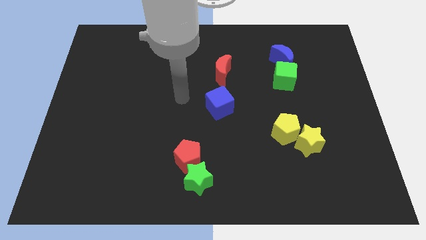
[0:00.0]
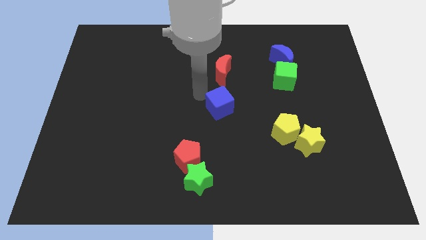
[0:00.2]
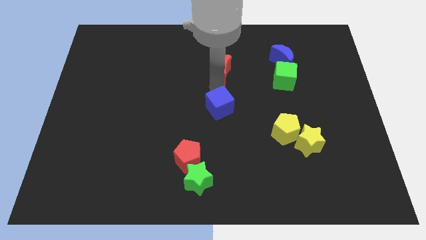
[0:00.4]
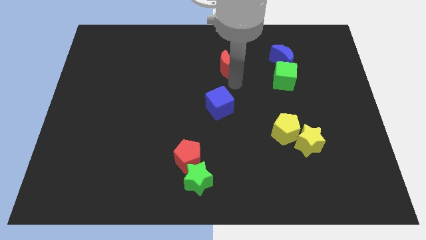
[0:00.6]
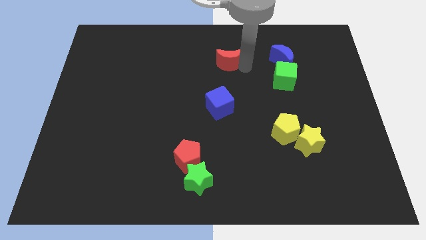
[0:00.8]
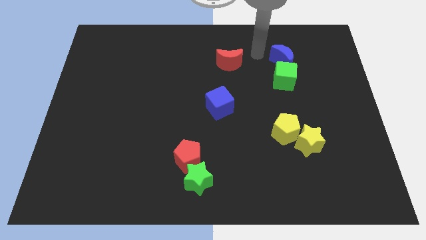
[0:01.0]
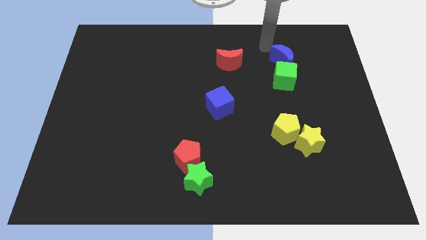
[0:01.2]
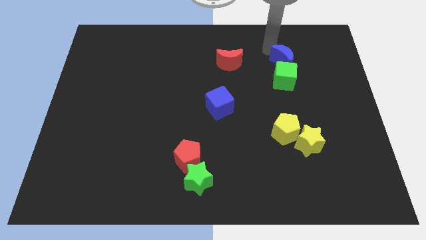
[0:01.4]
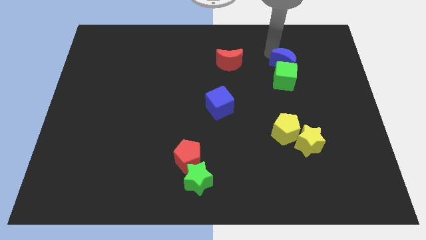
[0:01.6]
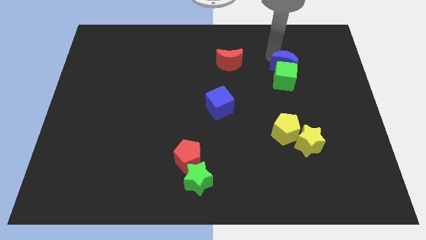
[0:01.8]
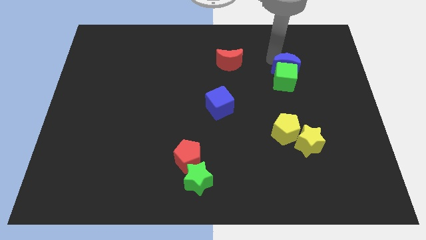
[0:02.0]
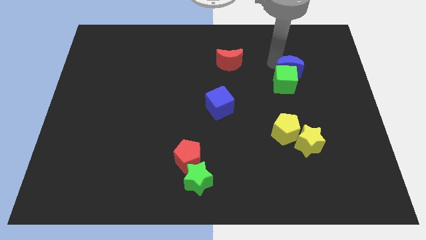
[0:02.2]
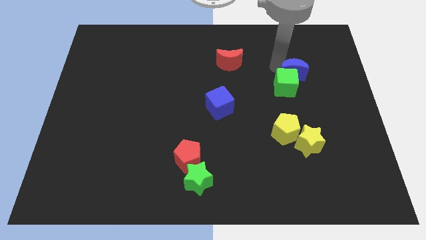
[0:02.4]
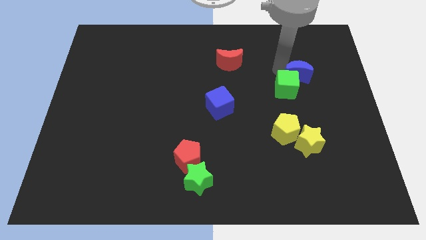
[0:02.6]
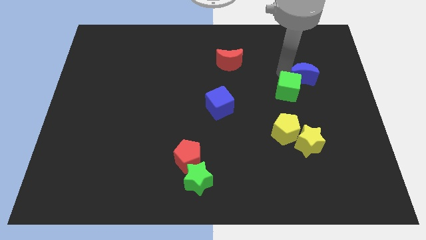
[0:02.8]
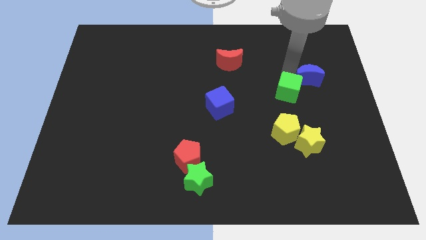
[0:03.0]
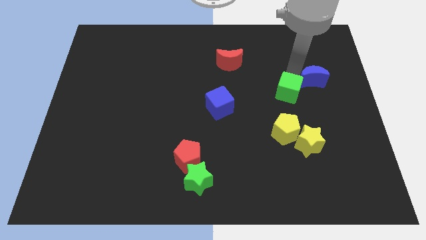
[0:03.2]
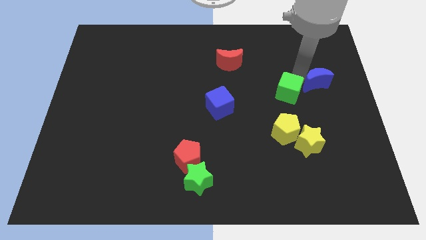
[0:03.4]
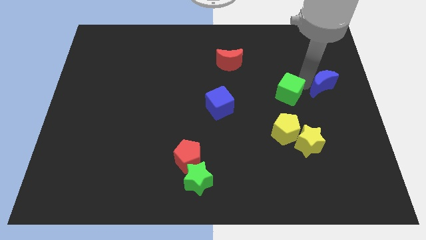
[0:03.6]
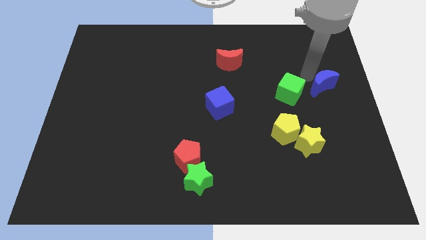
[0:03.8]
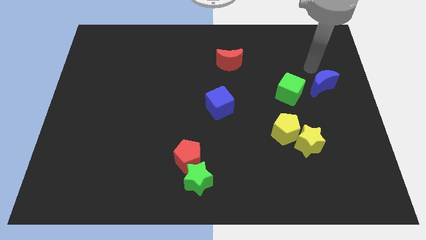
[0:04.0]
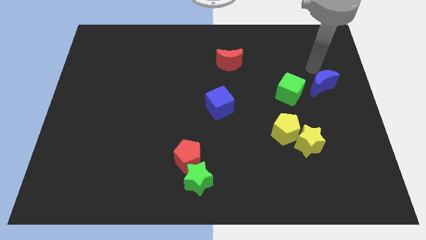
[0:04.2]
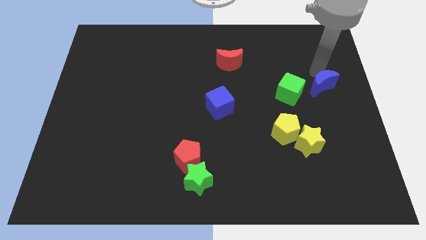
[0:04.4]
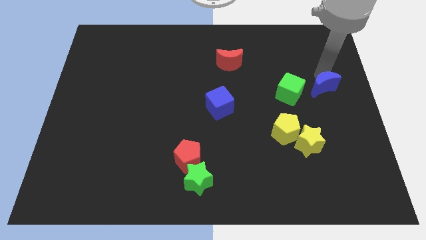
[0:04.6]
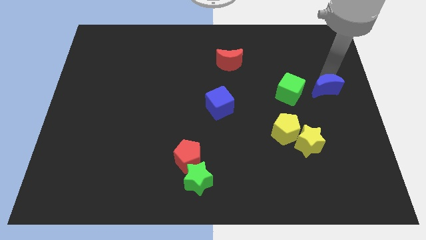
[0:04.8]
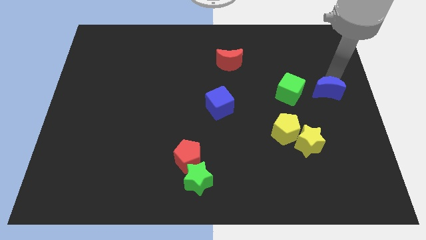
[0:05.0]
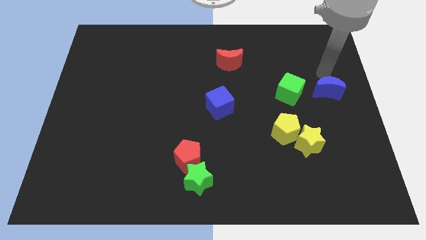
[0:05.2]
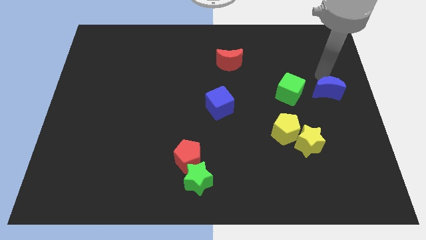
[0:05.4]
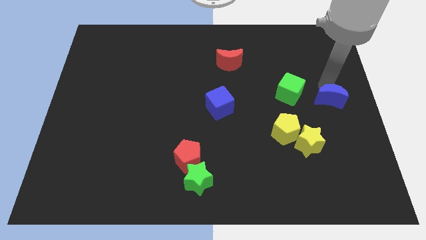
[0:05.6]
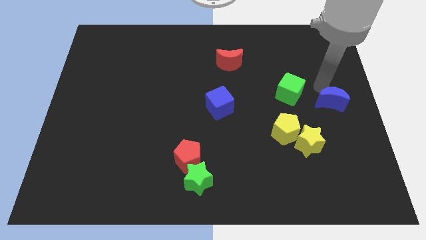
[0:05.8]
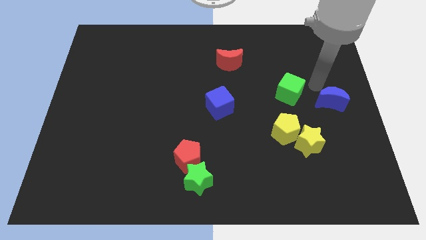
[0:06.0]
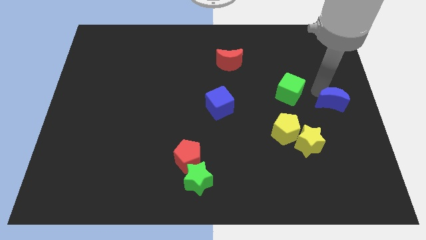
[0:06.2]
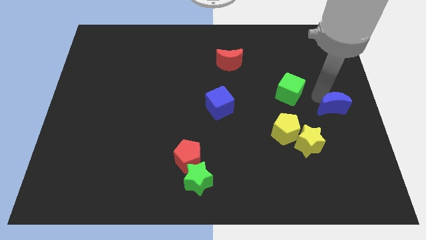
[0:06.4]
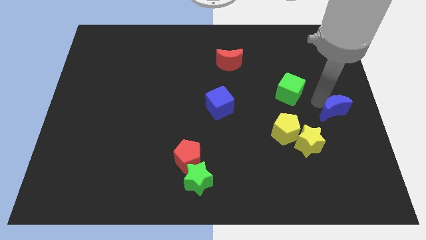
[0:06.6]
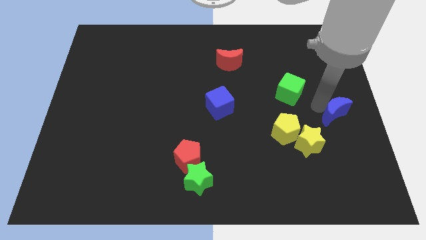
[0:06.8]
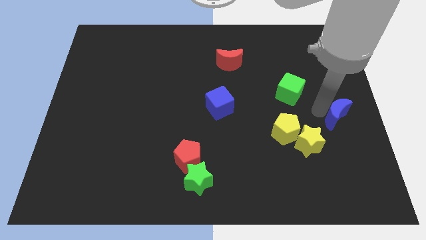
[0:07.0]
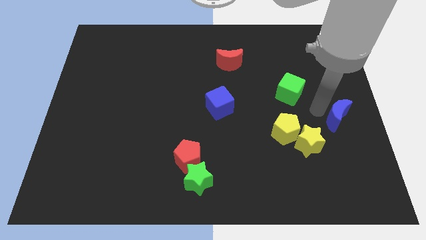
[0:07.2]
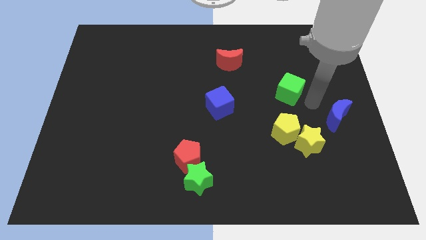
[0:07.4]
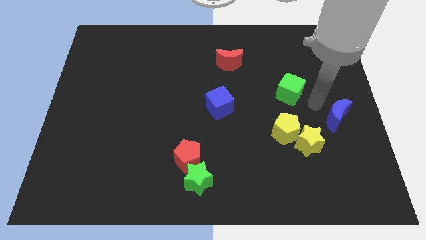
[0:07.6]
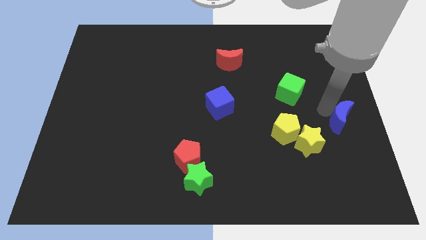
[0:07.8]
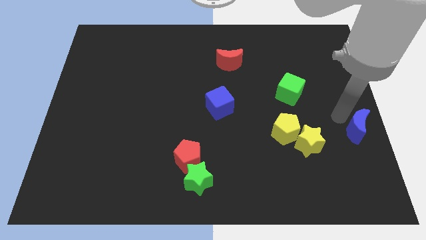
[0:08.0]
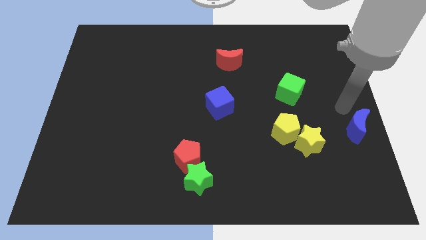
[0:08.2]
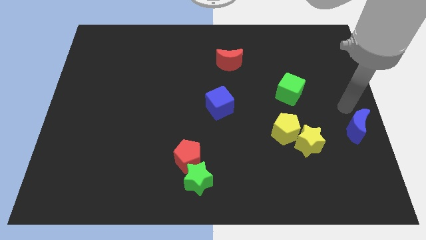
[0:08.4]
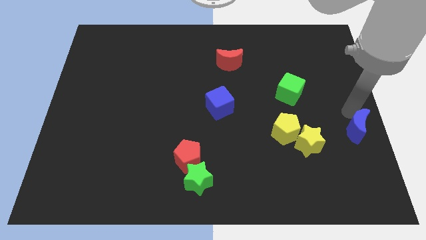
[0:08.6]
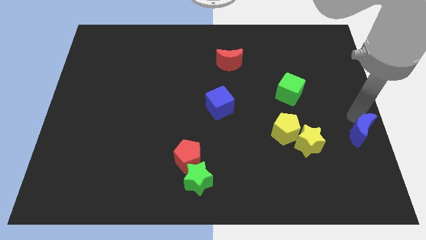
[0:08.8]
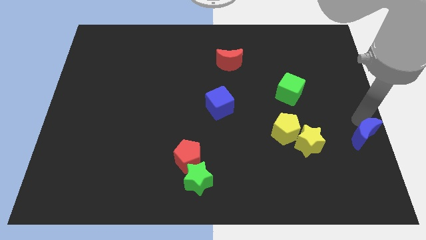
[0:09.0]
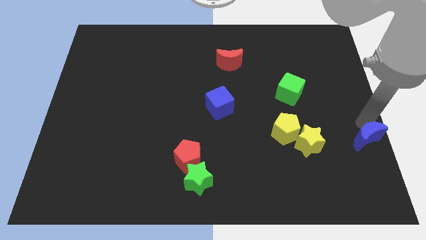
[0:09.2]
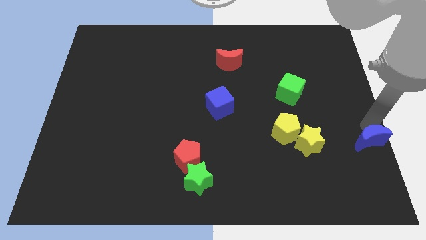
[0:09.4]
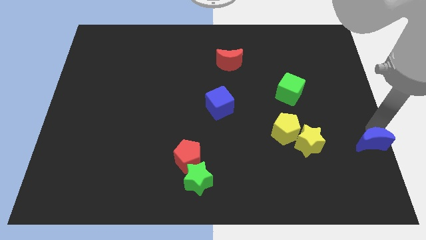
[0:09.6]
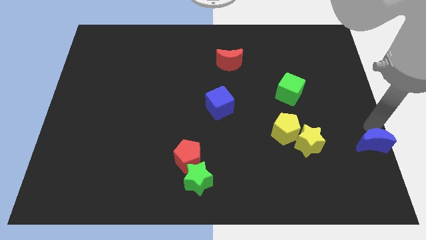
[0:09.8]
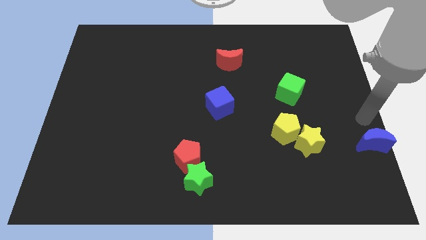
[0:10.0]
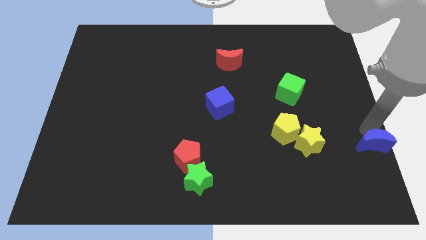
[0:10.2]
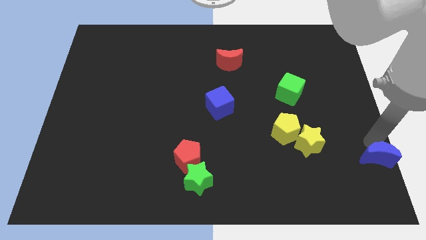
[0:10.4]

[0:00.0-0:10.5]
slide the blue moon to the bottom right corner

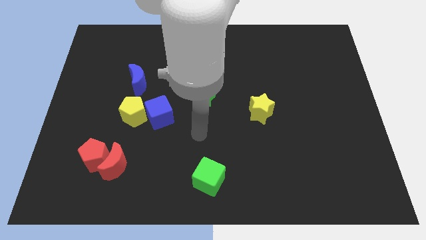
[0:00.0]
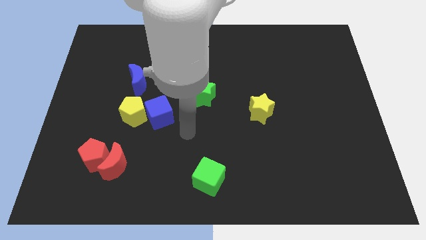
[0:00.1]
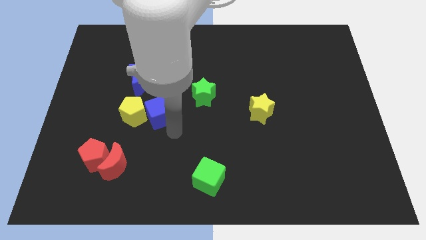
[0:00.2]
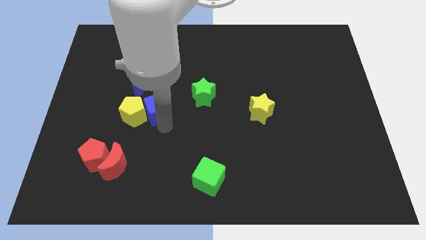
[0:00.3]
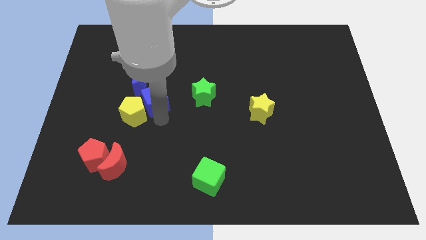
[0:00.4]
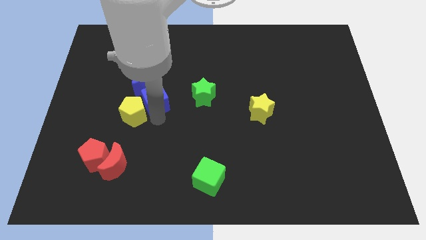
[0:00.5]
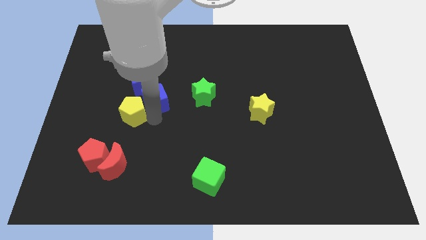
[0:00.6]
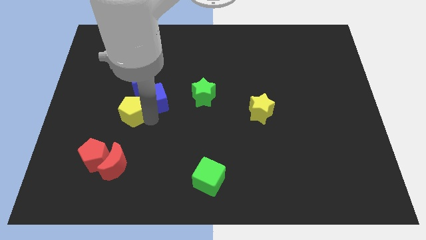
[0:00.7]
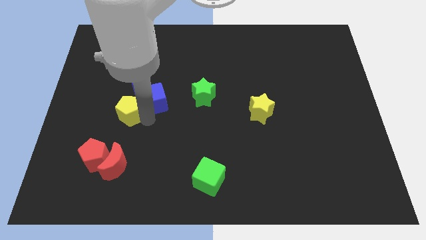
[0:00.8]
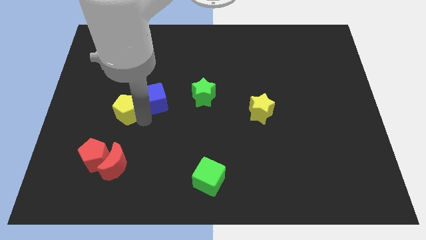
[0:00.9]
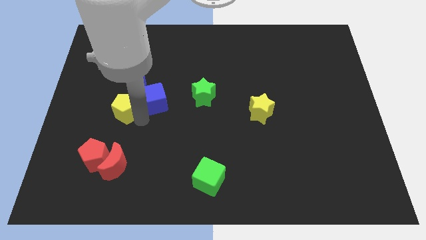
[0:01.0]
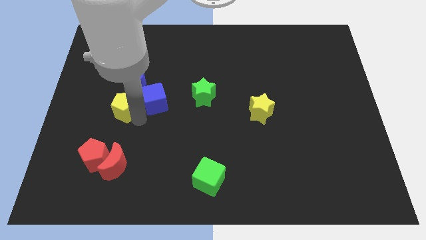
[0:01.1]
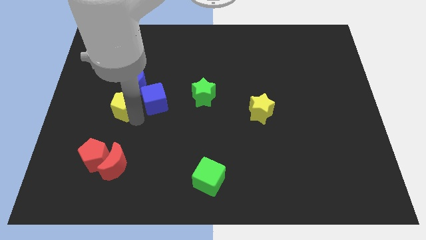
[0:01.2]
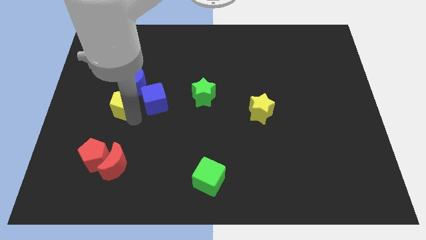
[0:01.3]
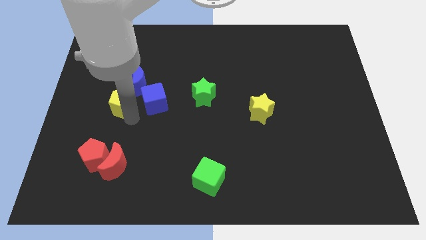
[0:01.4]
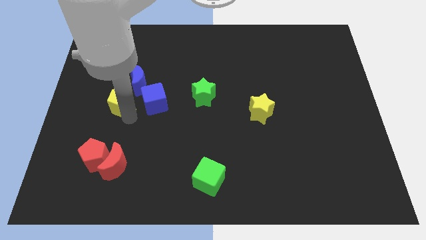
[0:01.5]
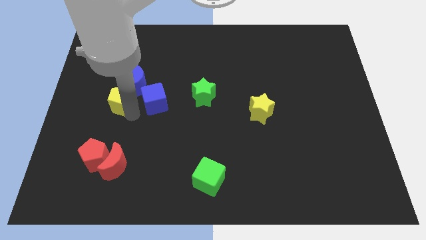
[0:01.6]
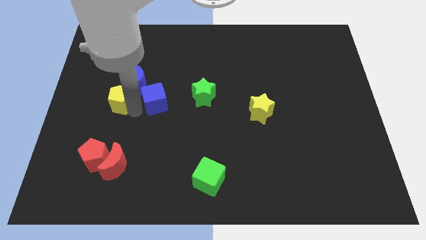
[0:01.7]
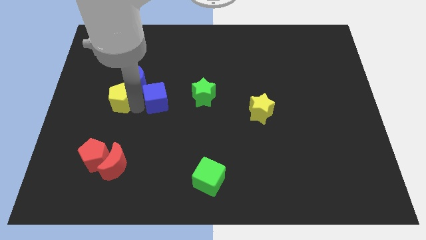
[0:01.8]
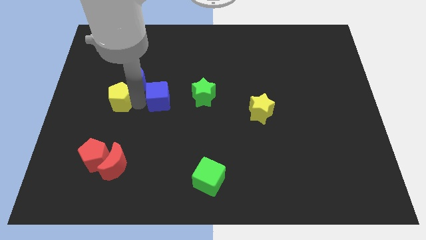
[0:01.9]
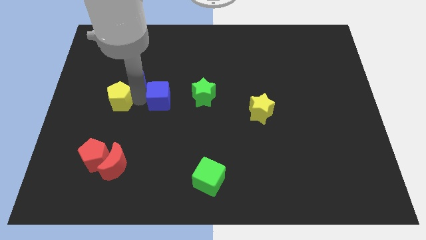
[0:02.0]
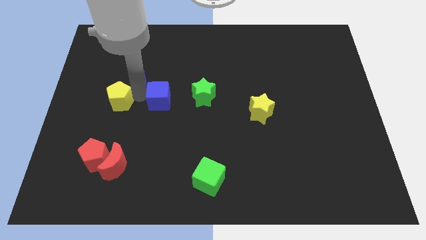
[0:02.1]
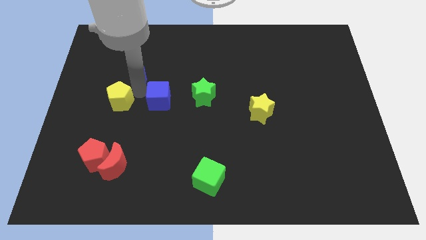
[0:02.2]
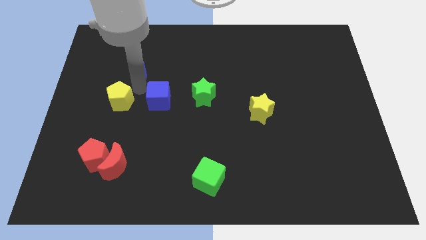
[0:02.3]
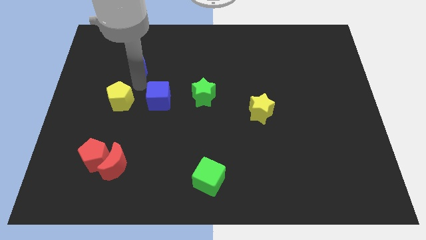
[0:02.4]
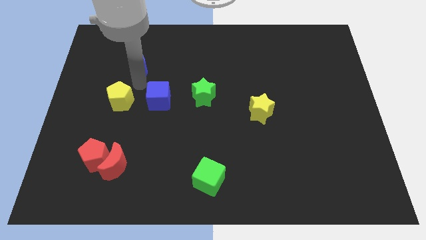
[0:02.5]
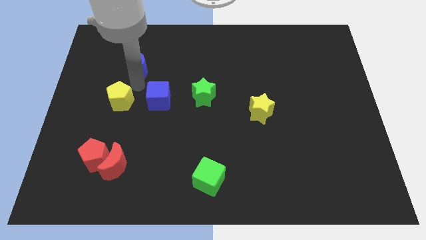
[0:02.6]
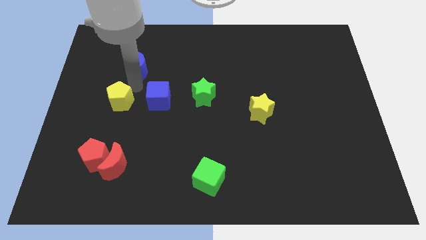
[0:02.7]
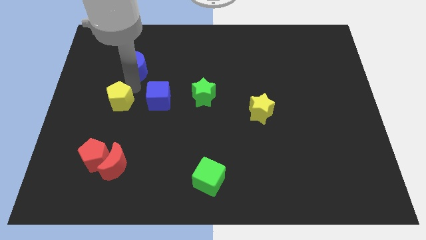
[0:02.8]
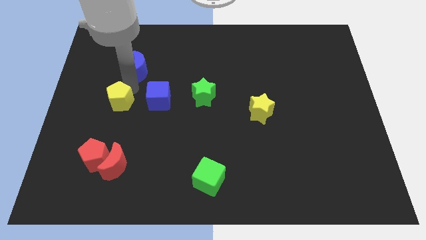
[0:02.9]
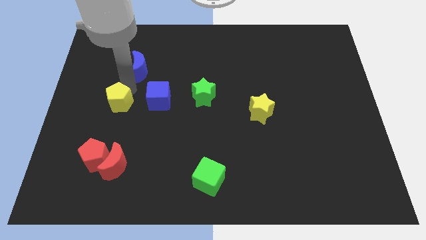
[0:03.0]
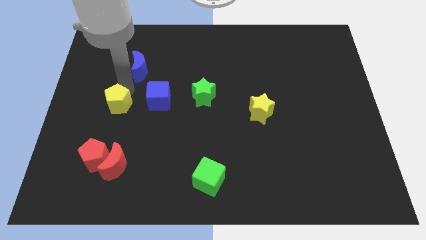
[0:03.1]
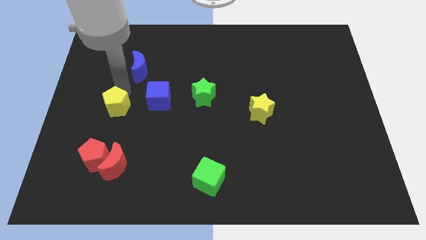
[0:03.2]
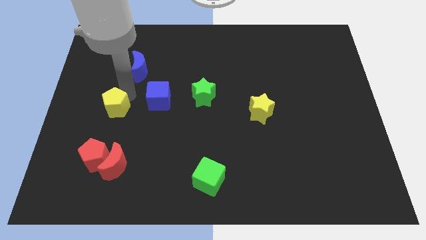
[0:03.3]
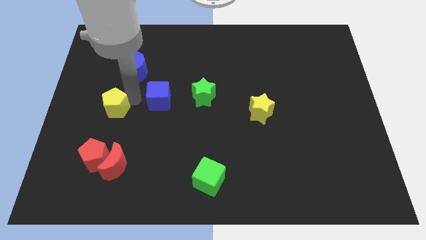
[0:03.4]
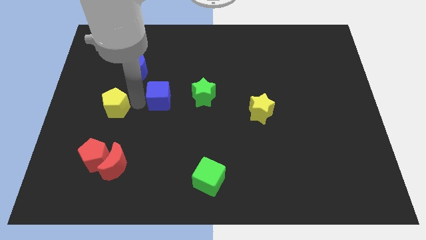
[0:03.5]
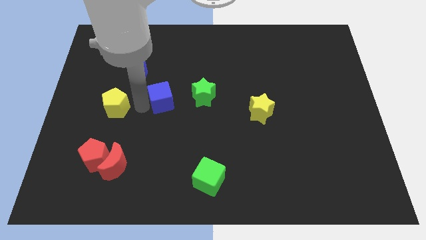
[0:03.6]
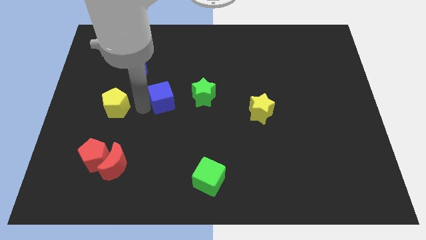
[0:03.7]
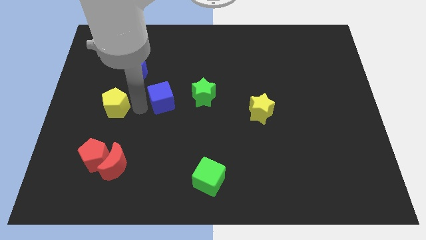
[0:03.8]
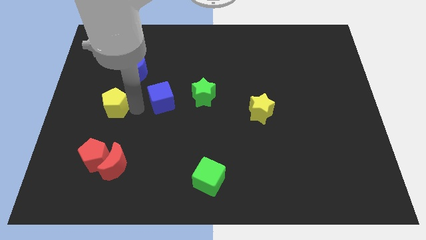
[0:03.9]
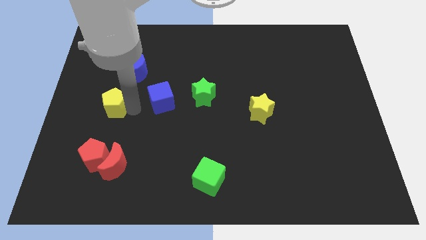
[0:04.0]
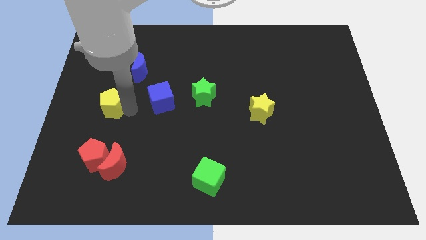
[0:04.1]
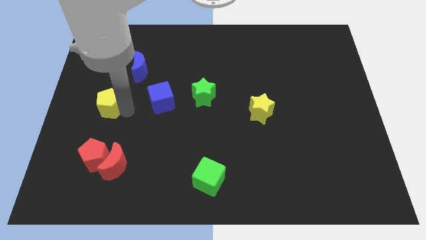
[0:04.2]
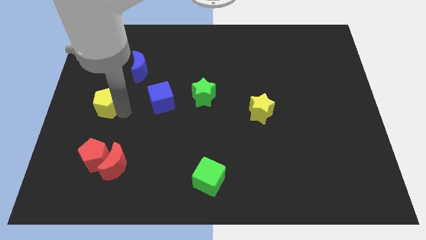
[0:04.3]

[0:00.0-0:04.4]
put the yellow pentagon to the left side
